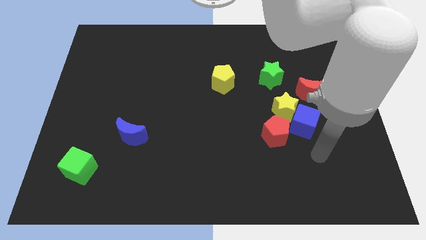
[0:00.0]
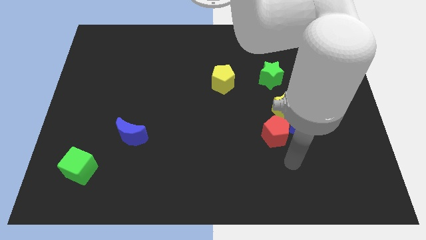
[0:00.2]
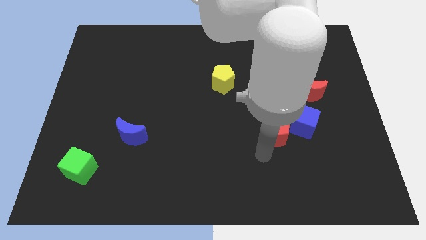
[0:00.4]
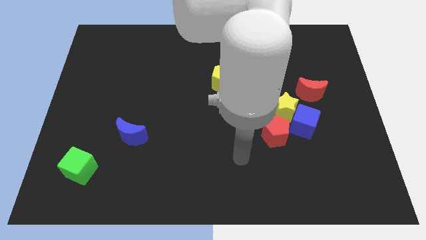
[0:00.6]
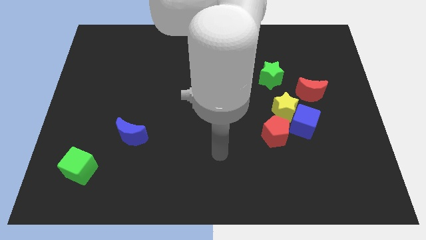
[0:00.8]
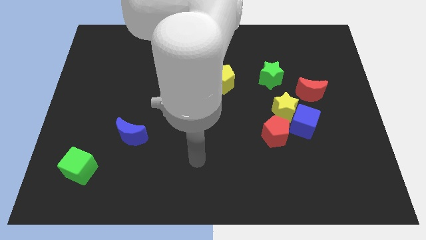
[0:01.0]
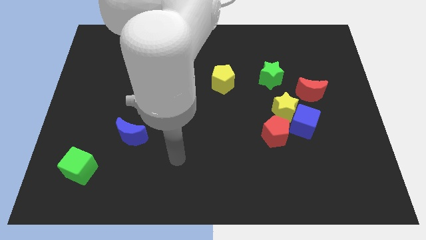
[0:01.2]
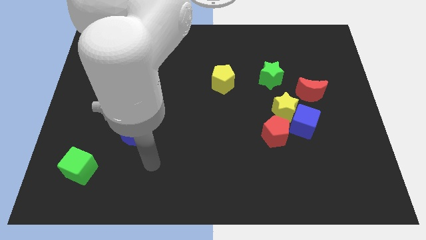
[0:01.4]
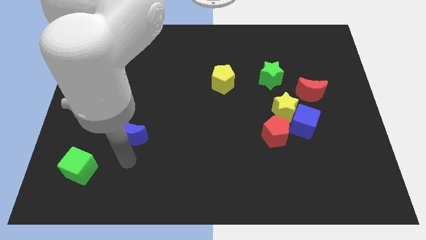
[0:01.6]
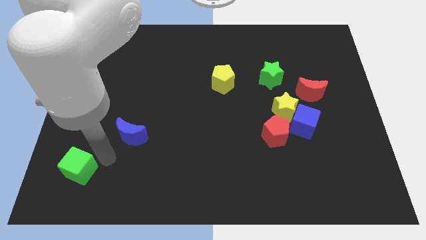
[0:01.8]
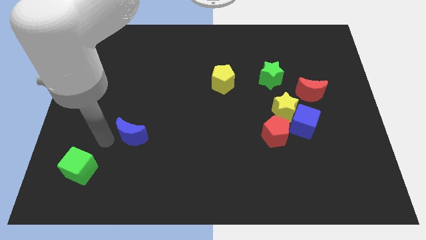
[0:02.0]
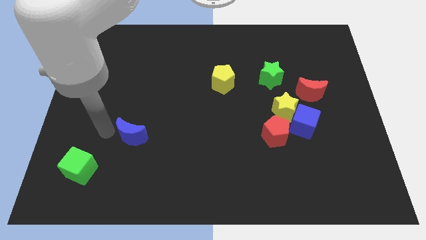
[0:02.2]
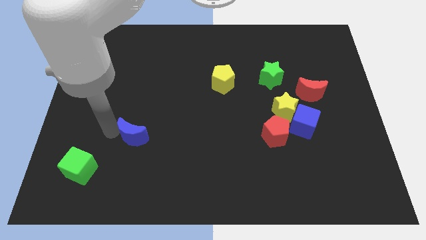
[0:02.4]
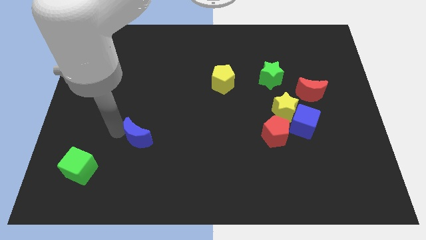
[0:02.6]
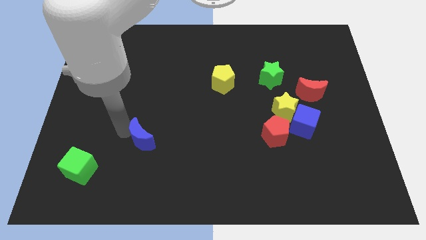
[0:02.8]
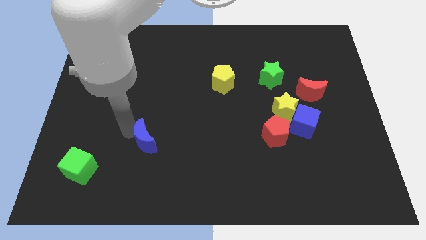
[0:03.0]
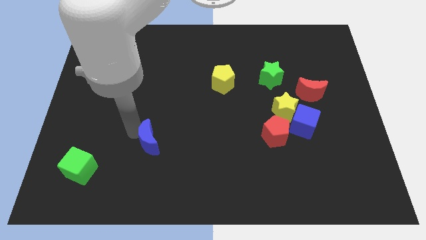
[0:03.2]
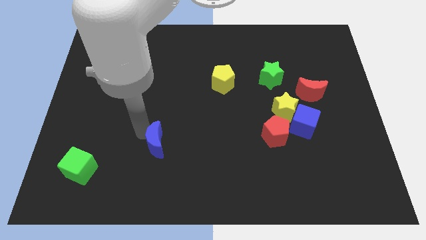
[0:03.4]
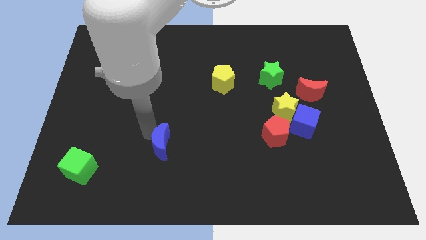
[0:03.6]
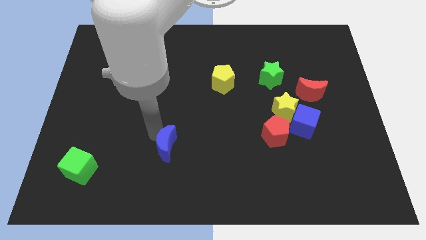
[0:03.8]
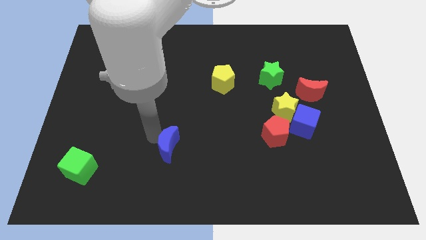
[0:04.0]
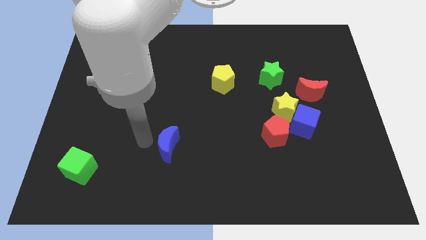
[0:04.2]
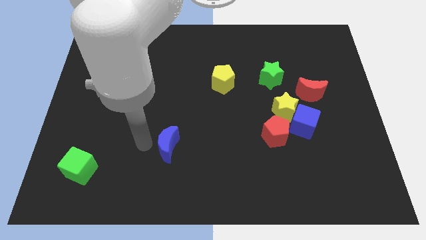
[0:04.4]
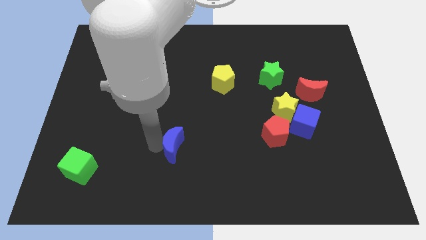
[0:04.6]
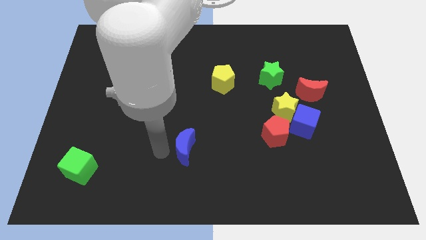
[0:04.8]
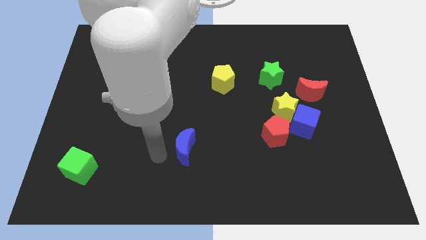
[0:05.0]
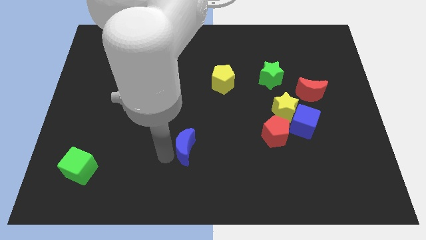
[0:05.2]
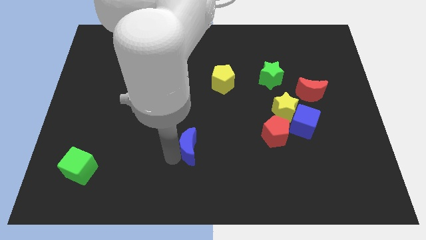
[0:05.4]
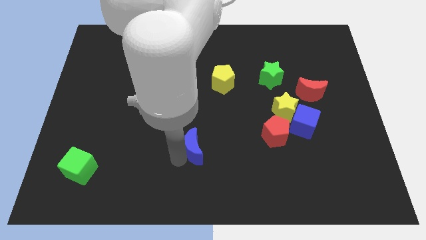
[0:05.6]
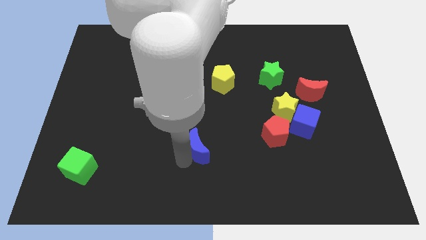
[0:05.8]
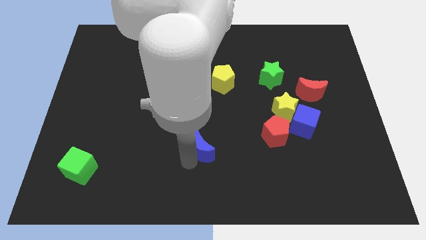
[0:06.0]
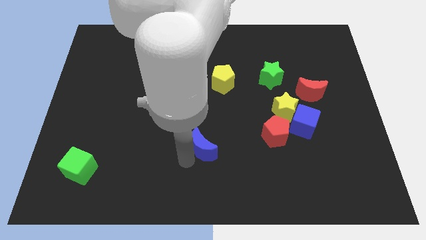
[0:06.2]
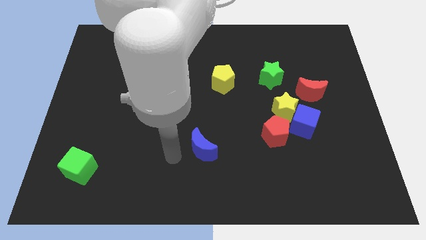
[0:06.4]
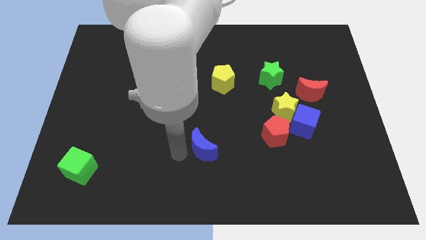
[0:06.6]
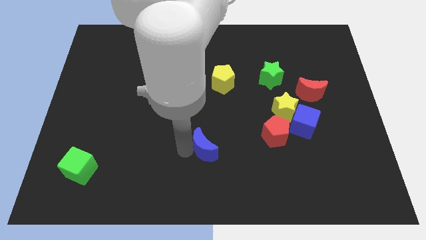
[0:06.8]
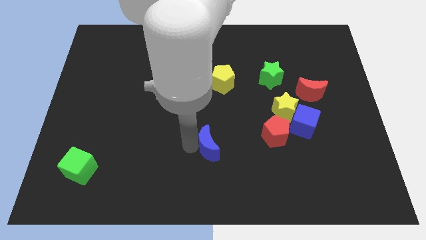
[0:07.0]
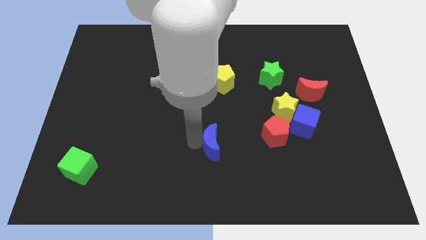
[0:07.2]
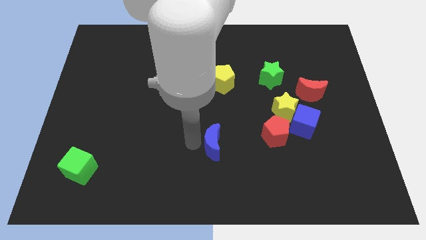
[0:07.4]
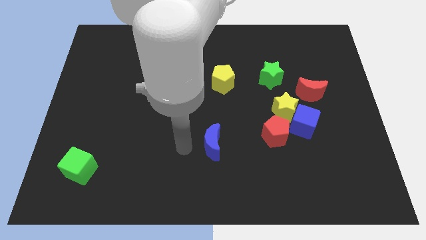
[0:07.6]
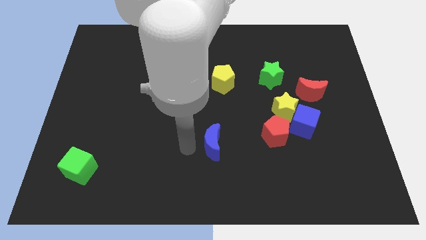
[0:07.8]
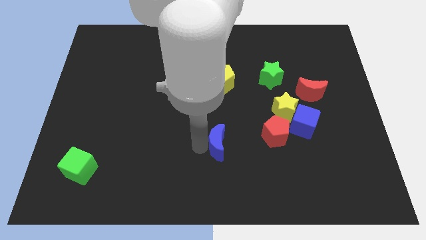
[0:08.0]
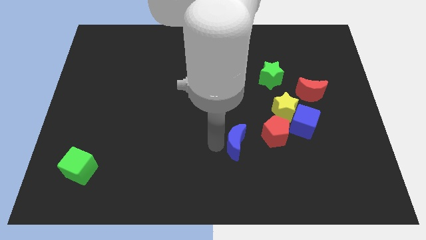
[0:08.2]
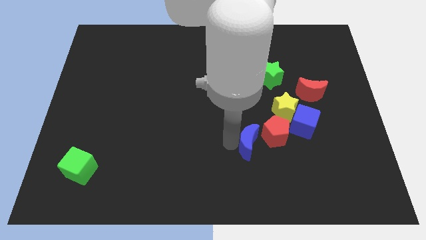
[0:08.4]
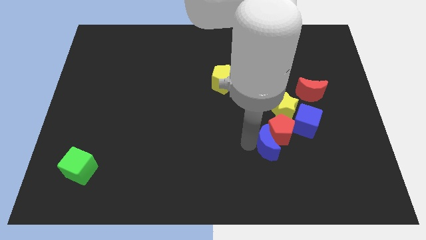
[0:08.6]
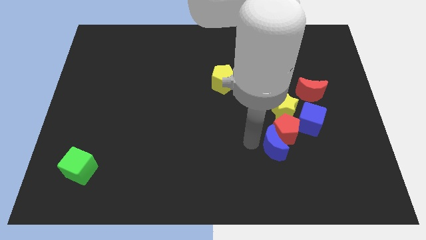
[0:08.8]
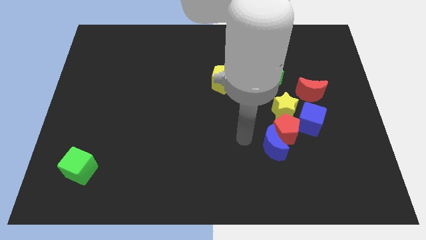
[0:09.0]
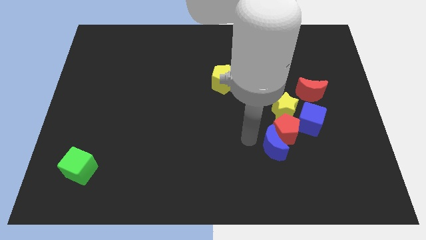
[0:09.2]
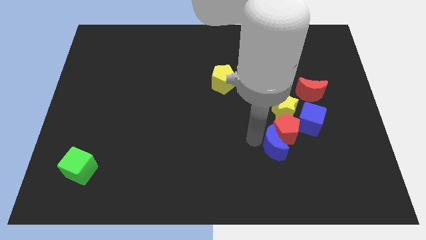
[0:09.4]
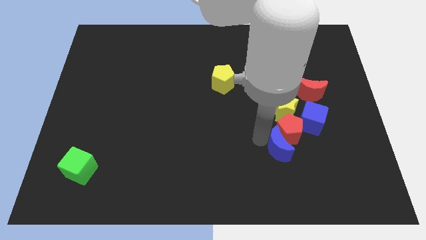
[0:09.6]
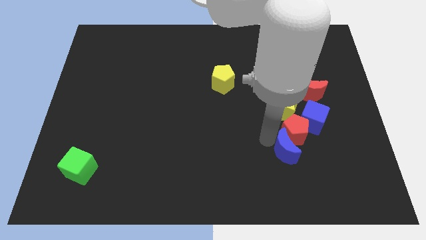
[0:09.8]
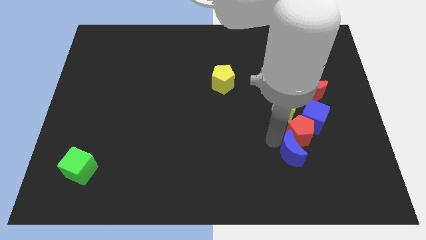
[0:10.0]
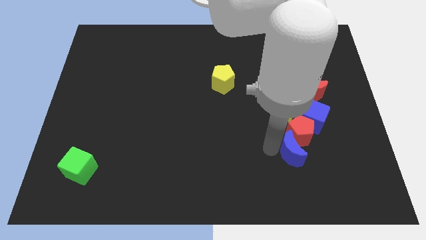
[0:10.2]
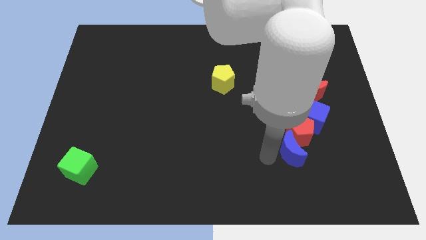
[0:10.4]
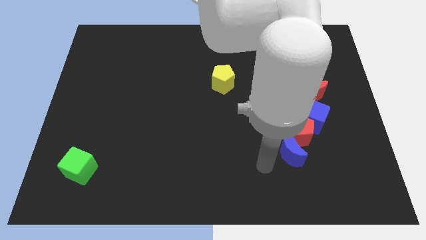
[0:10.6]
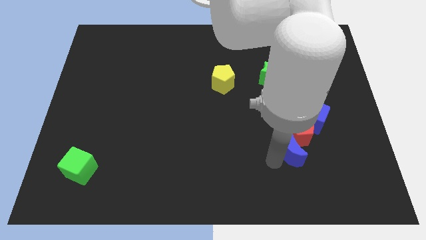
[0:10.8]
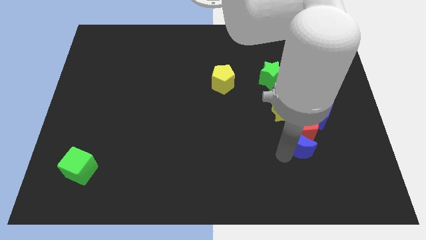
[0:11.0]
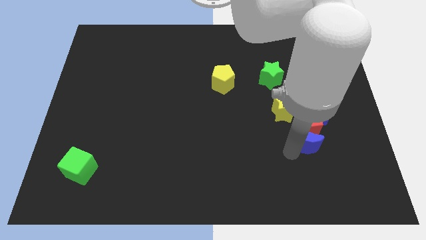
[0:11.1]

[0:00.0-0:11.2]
move the blue moon diagonally down and to the right of the yellow star

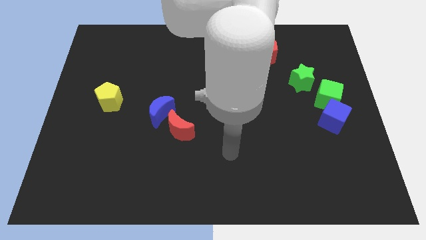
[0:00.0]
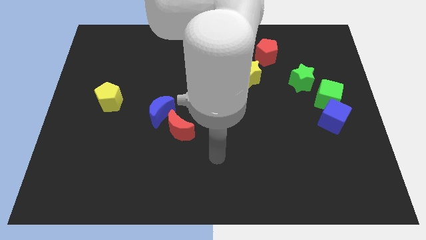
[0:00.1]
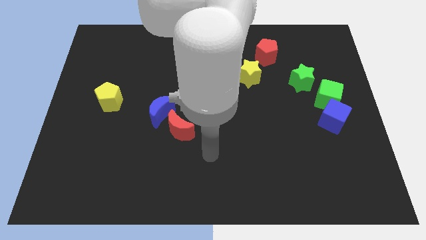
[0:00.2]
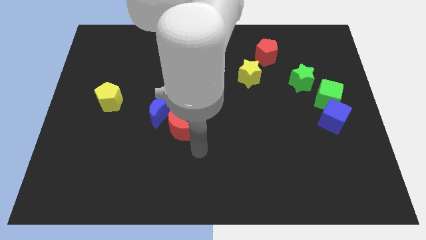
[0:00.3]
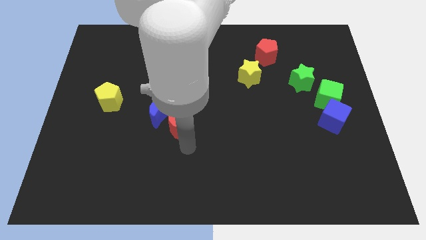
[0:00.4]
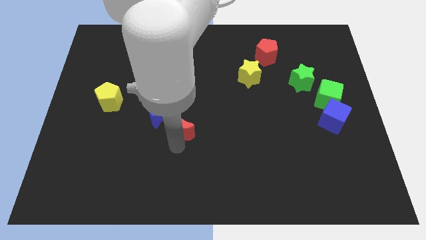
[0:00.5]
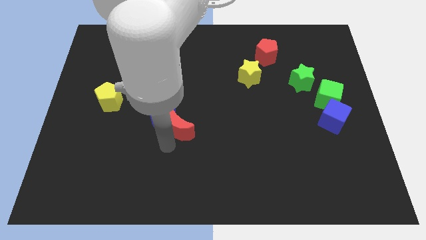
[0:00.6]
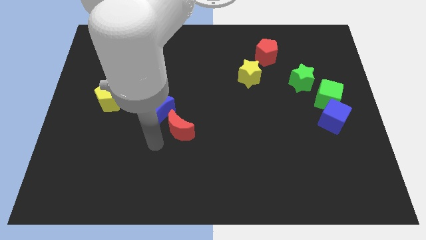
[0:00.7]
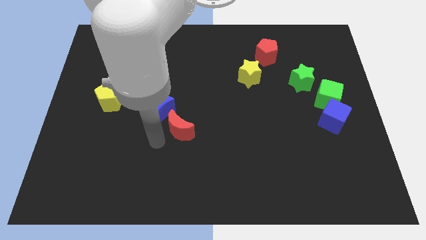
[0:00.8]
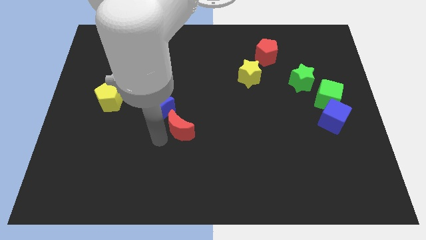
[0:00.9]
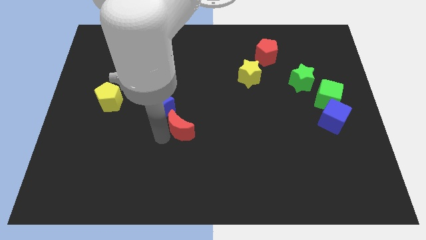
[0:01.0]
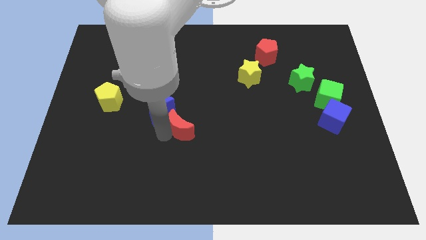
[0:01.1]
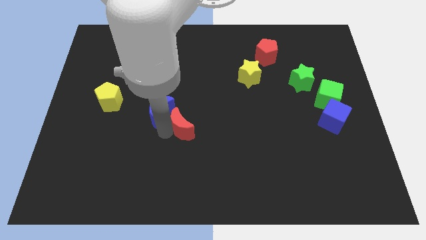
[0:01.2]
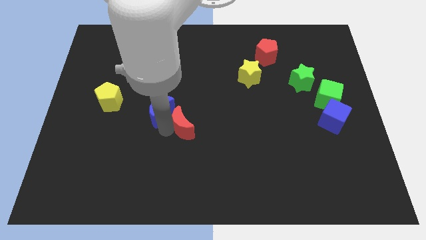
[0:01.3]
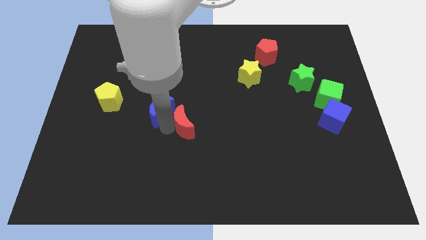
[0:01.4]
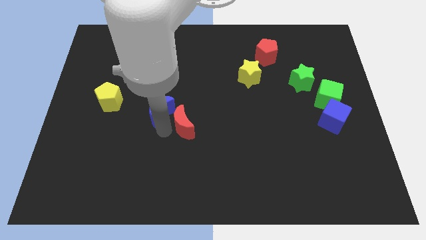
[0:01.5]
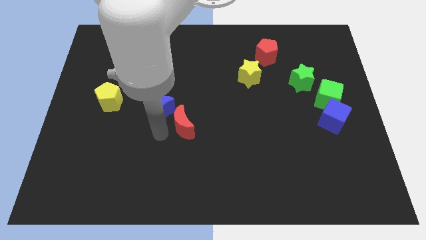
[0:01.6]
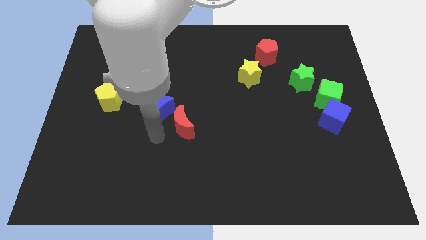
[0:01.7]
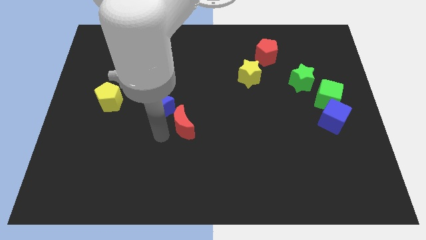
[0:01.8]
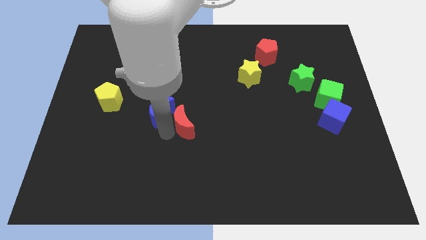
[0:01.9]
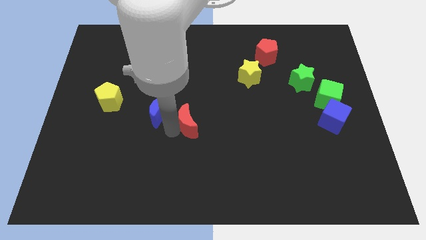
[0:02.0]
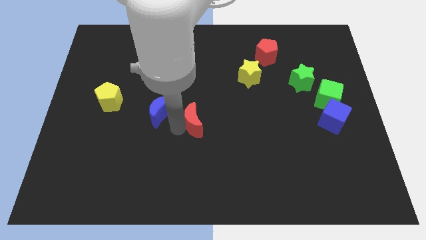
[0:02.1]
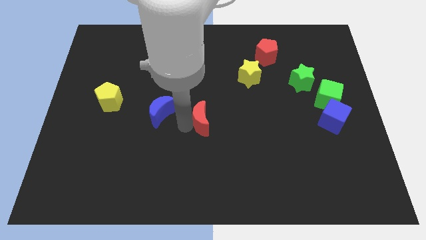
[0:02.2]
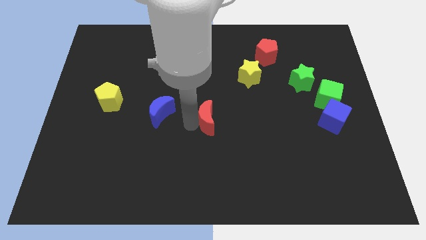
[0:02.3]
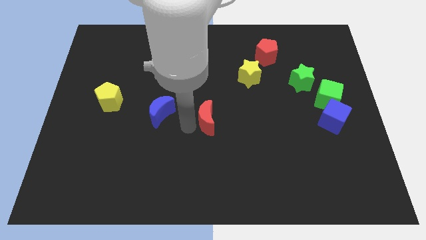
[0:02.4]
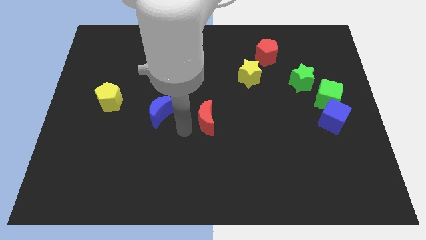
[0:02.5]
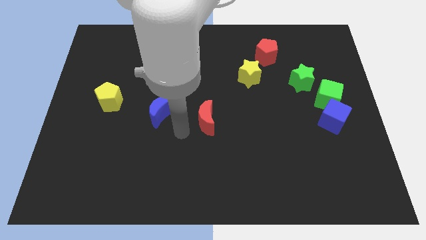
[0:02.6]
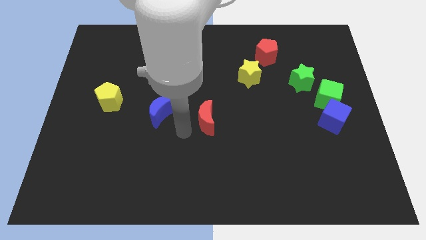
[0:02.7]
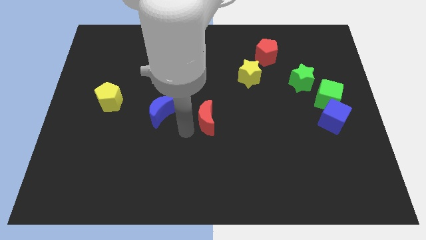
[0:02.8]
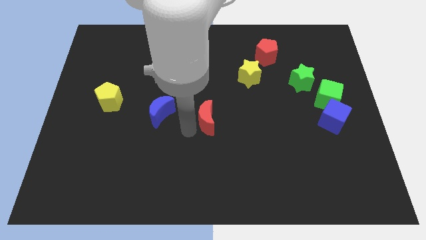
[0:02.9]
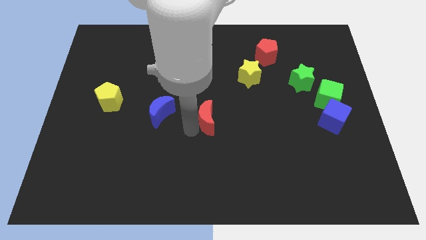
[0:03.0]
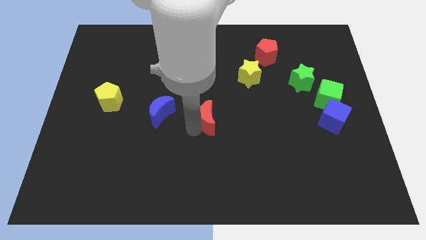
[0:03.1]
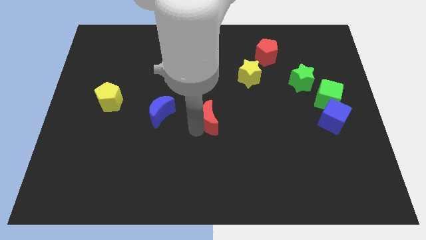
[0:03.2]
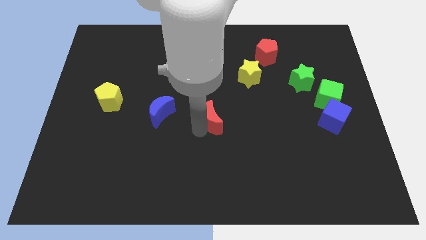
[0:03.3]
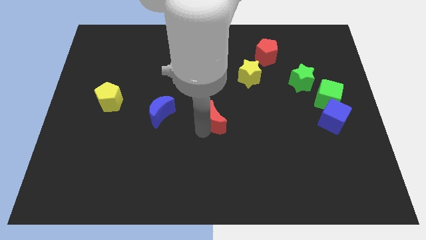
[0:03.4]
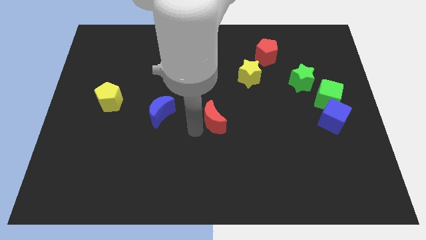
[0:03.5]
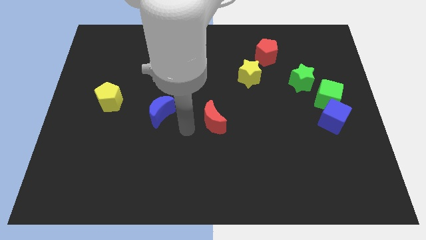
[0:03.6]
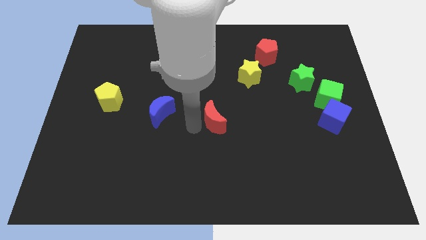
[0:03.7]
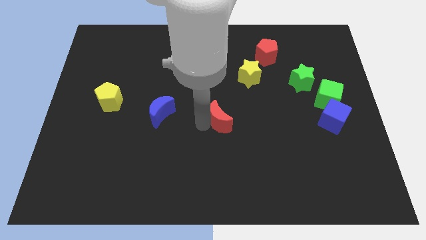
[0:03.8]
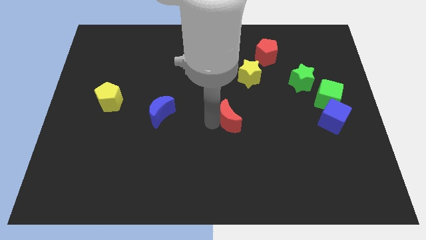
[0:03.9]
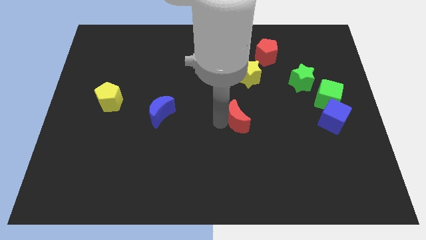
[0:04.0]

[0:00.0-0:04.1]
push the red moon to the bottom side of the yellow star
